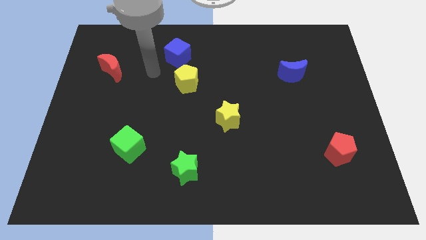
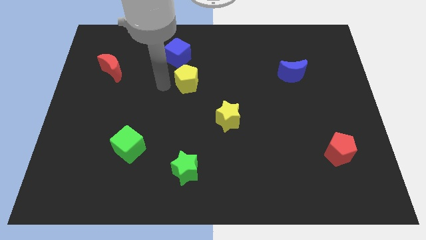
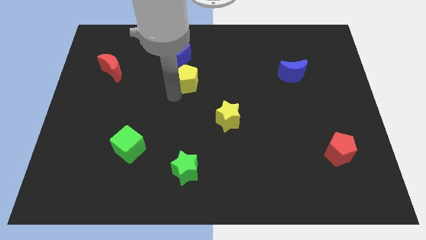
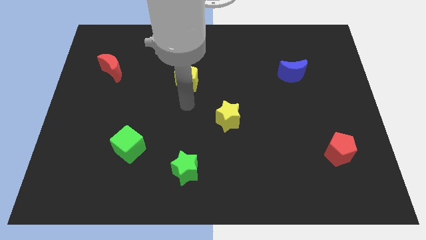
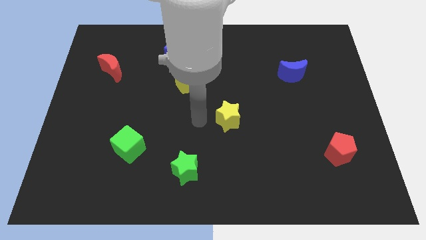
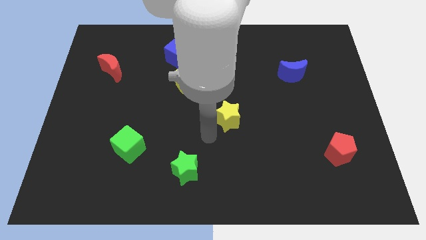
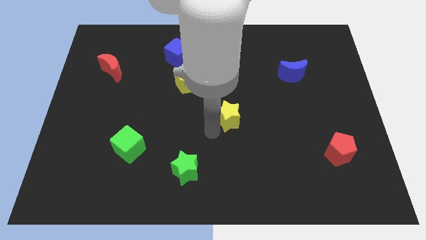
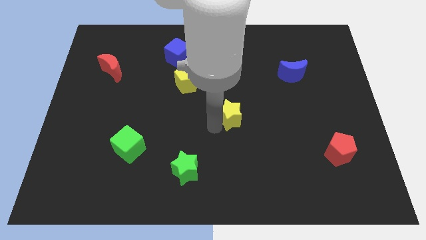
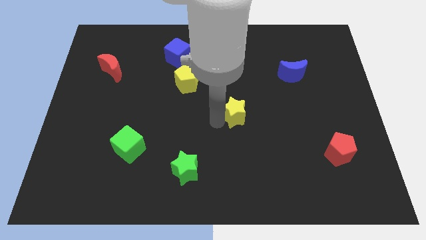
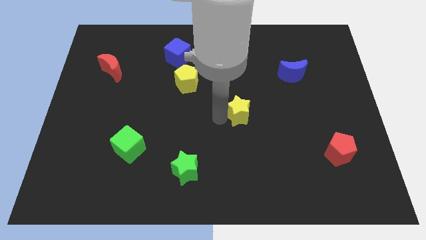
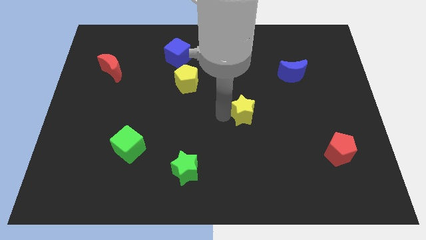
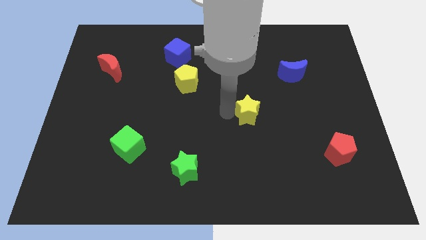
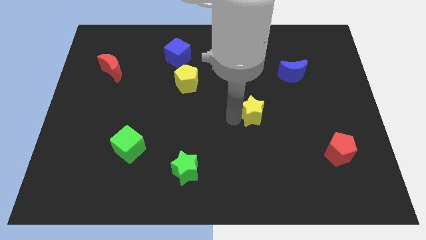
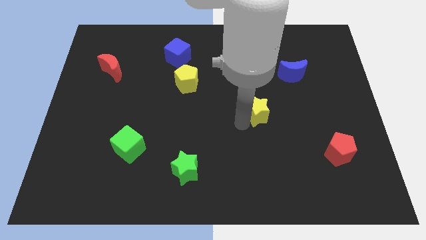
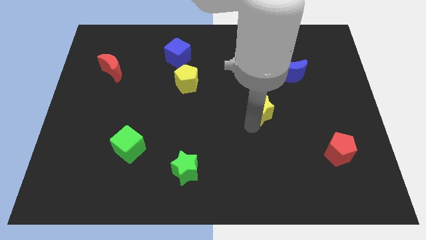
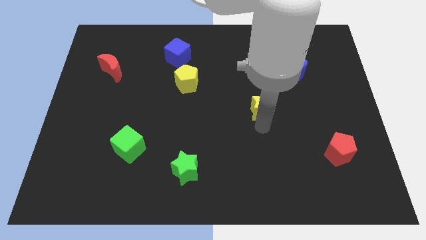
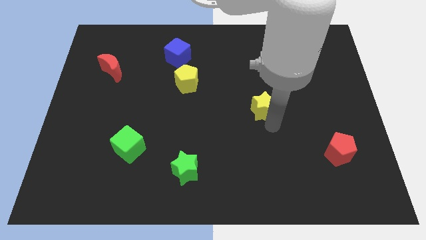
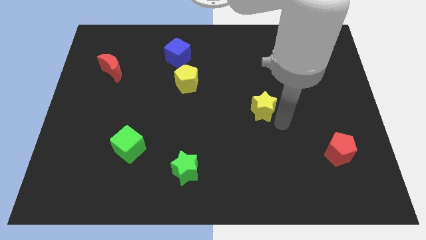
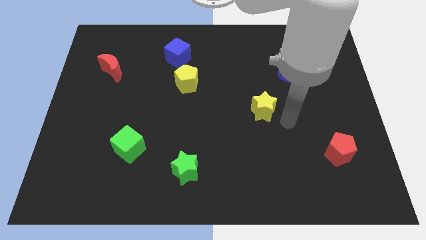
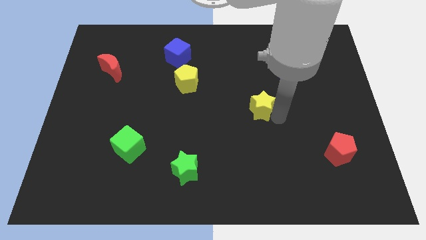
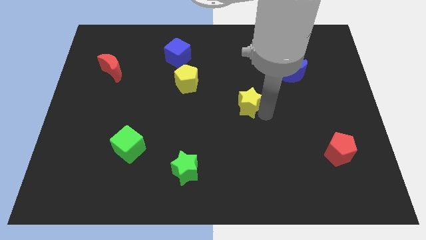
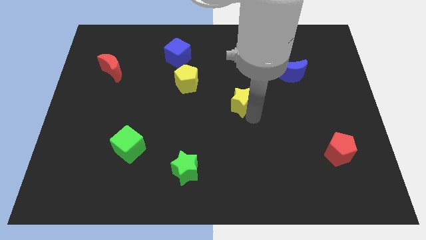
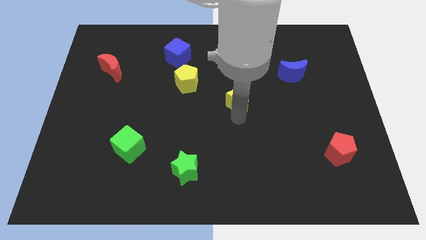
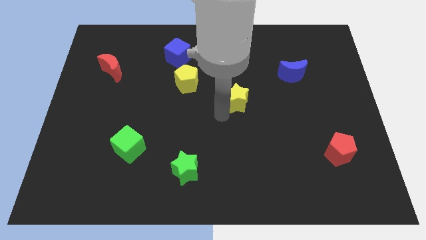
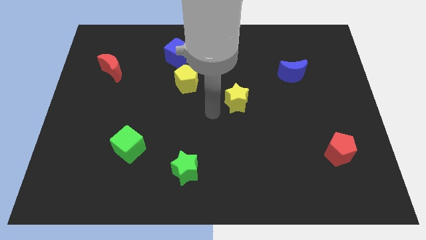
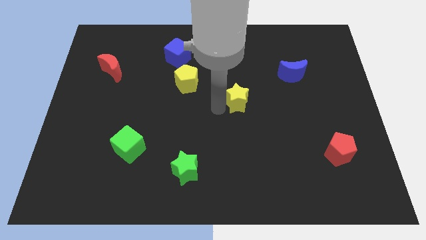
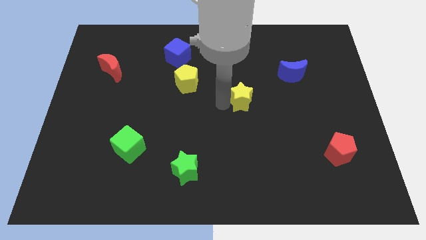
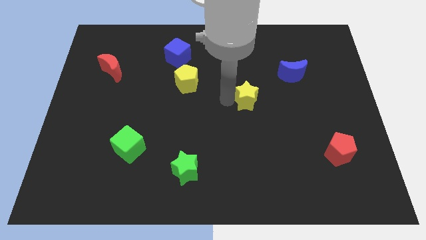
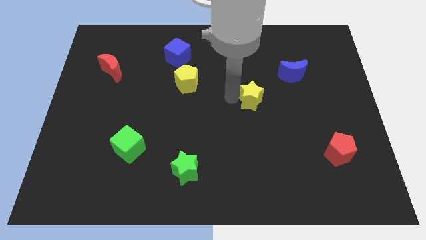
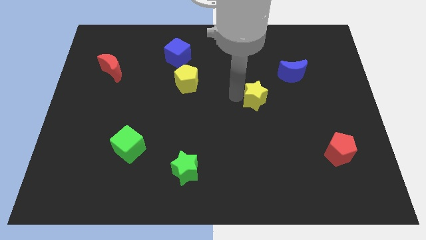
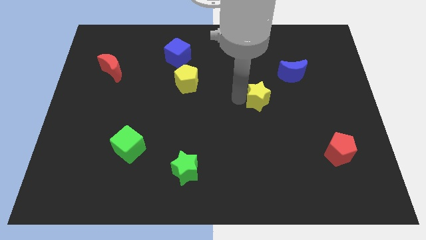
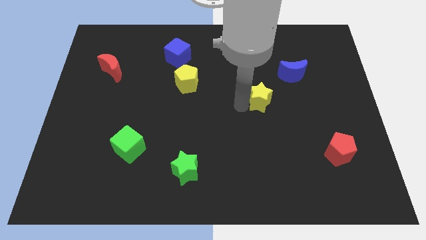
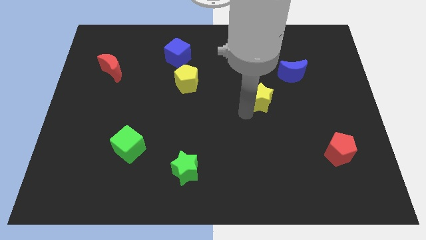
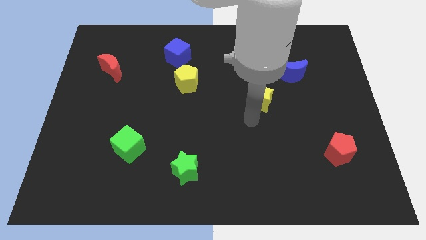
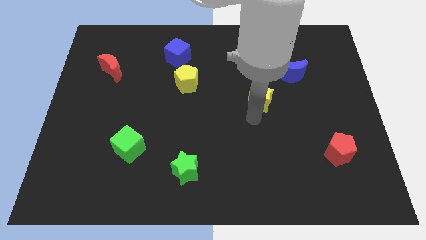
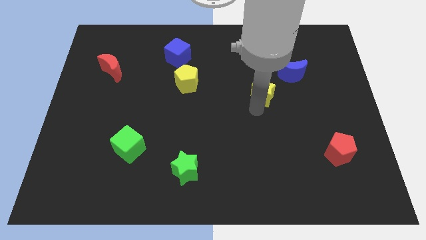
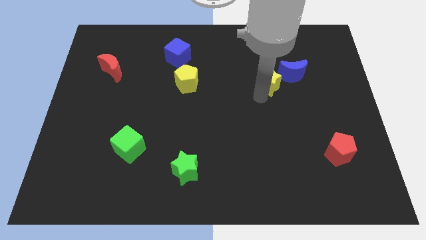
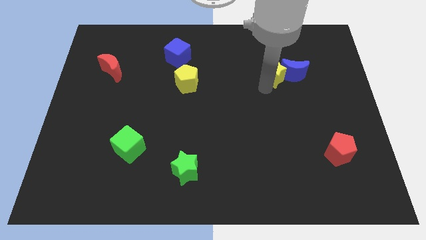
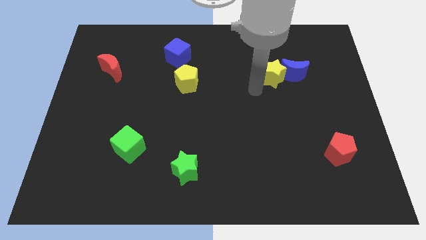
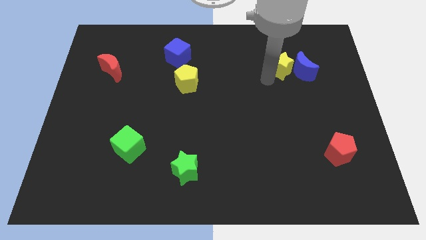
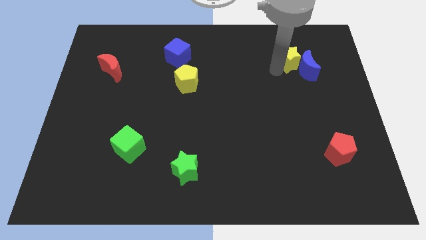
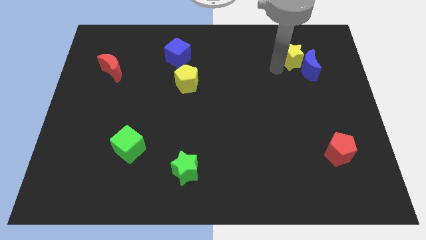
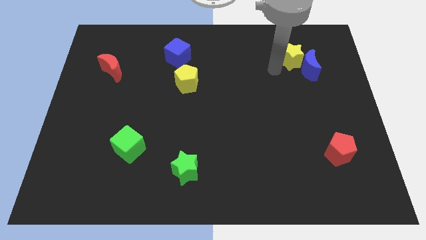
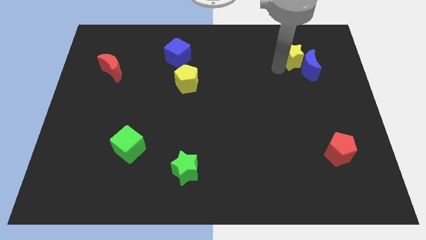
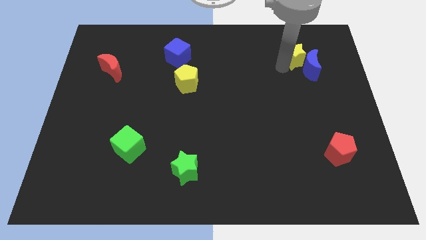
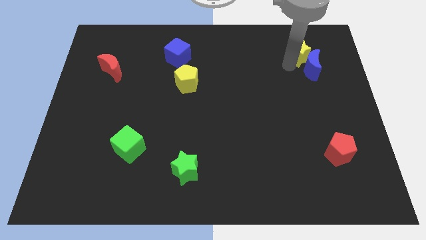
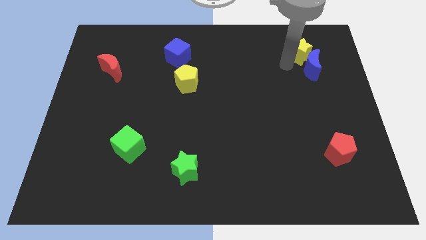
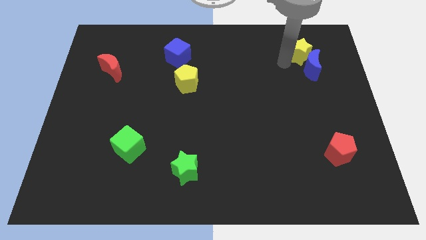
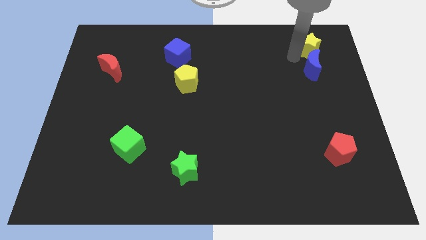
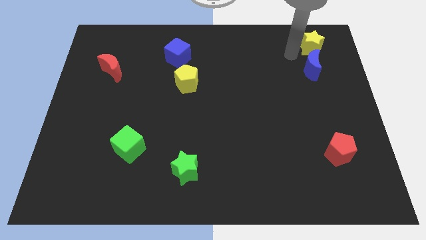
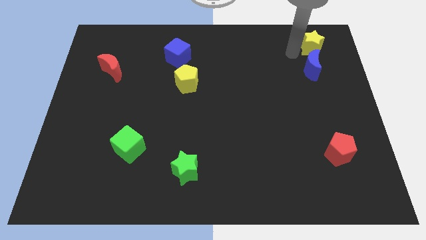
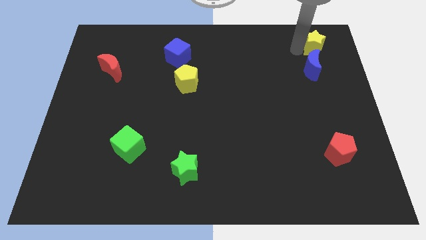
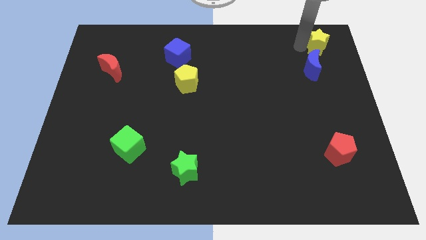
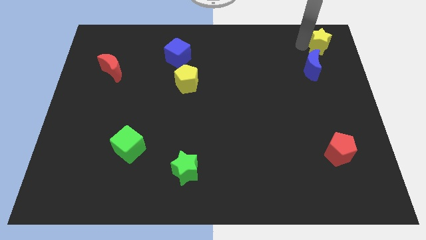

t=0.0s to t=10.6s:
move the yellow star to the top right corner

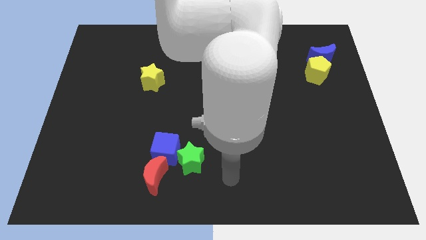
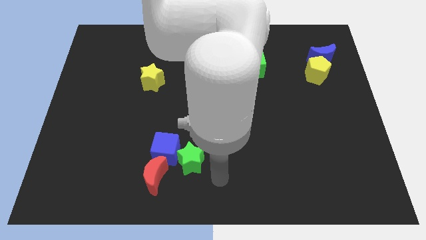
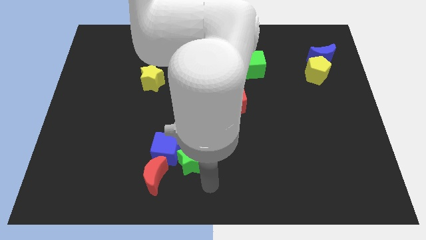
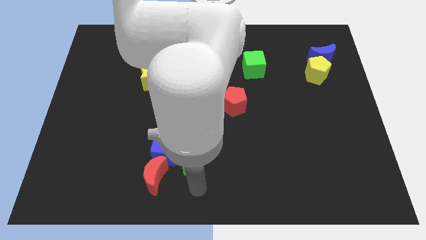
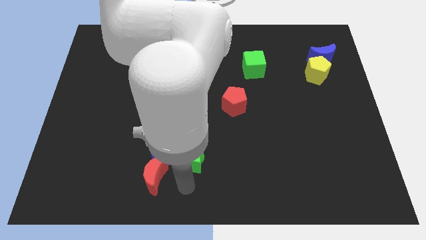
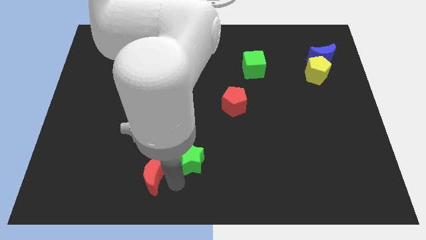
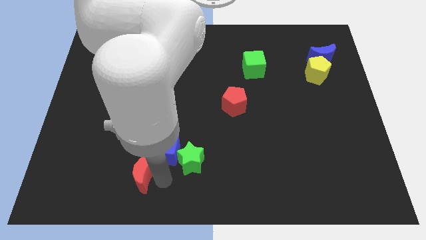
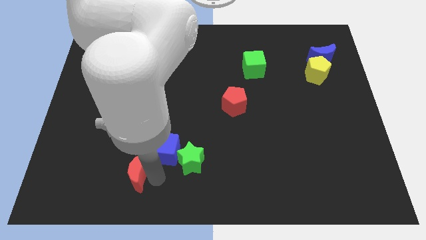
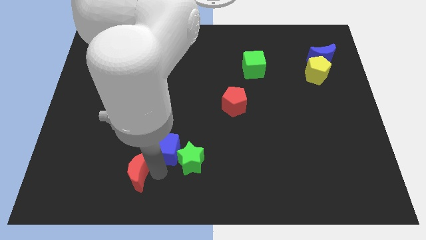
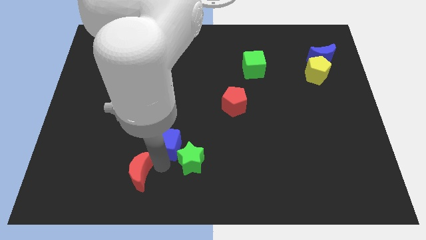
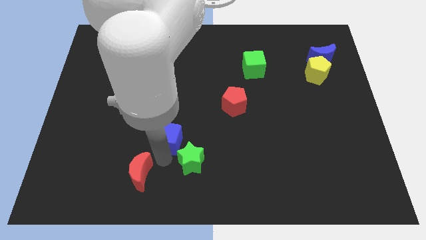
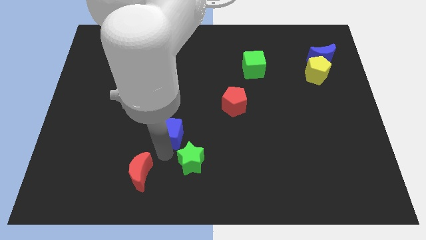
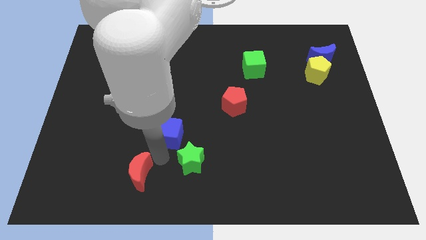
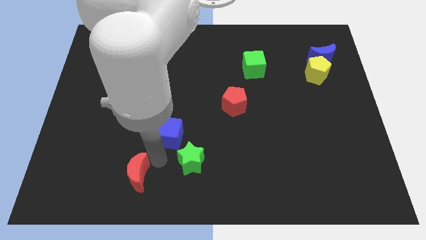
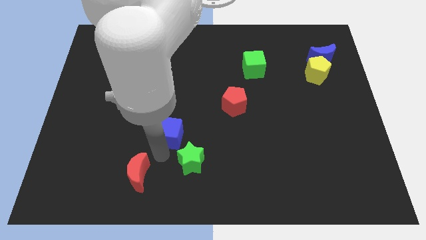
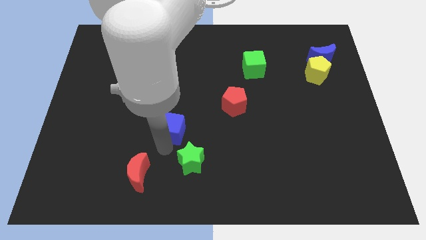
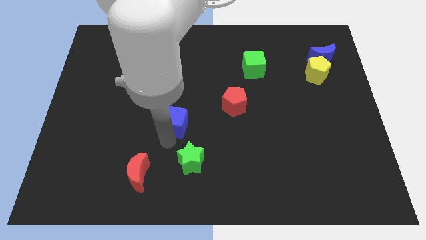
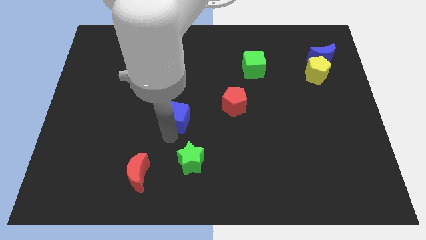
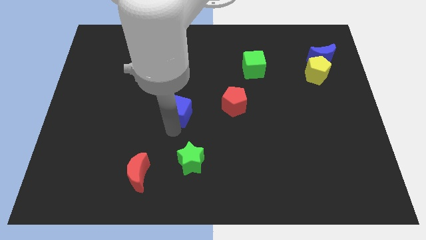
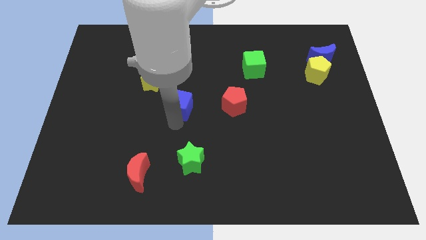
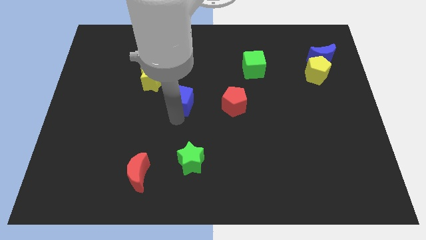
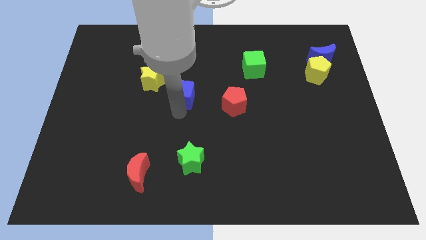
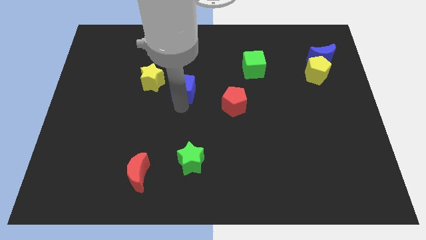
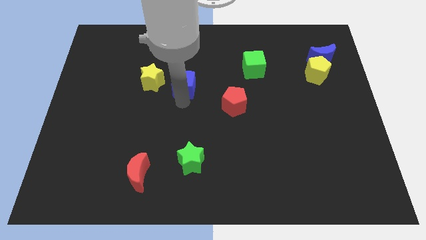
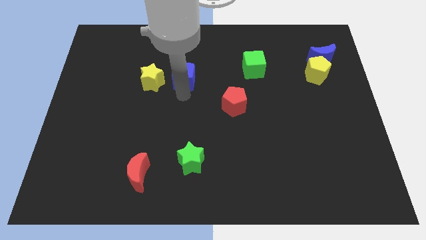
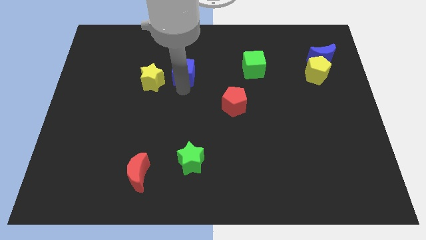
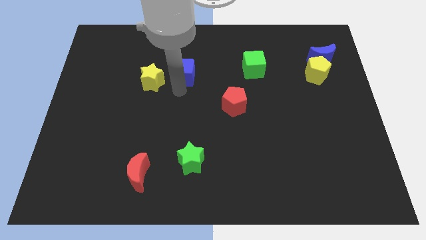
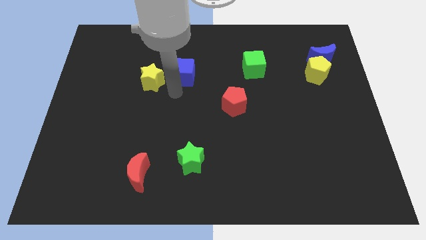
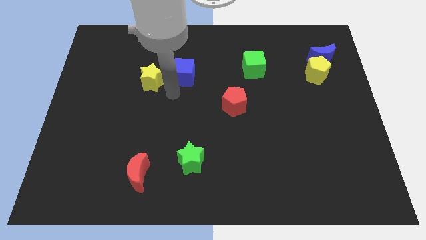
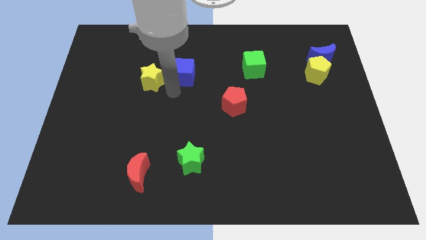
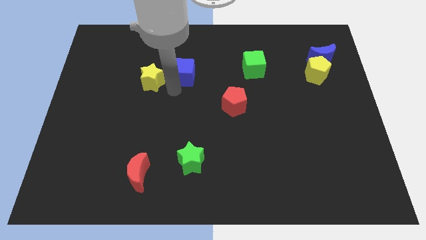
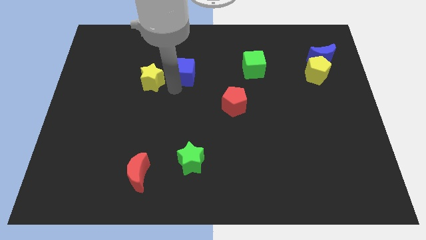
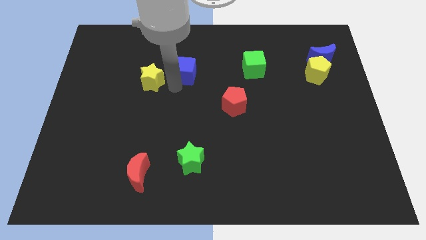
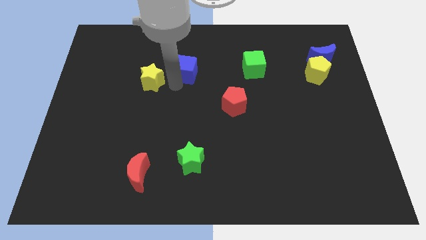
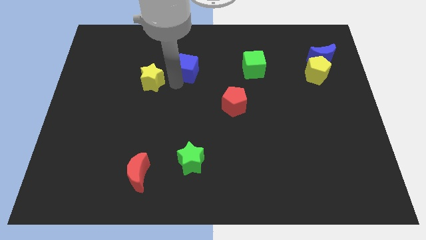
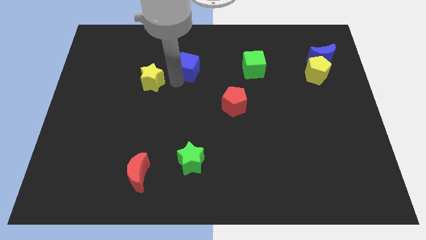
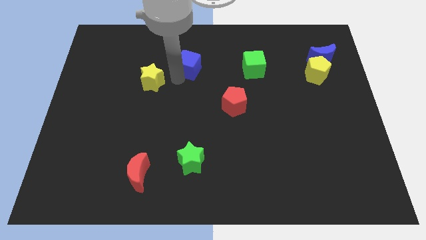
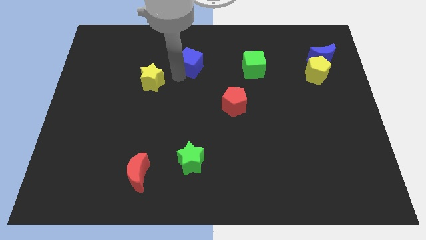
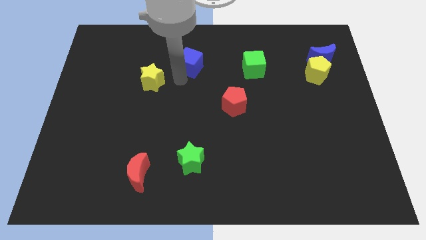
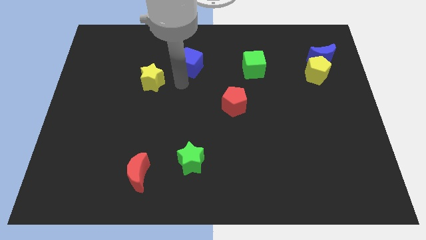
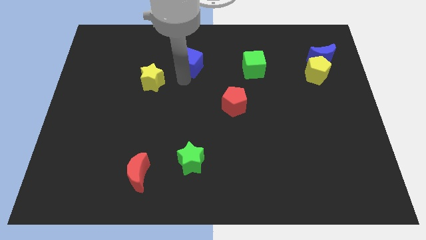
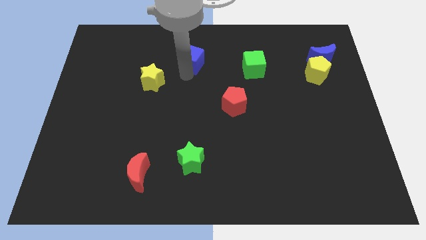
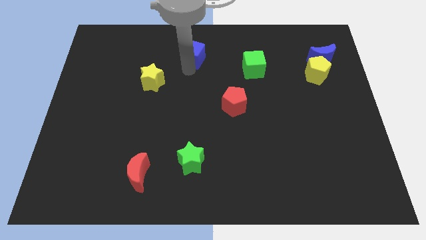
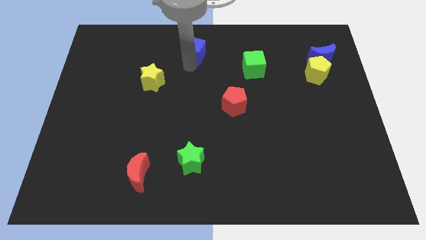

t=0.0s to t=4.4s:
put the blue cube to the top side
